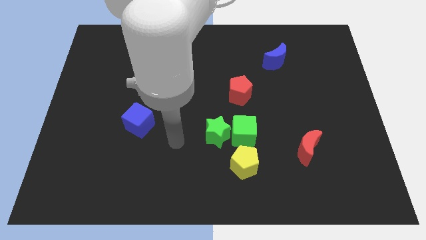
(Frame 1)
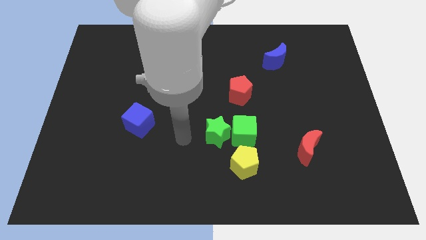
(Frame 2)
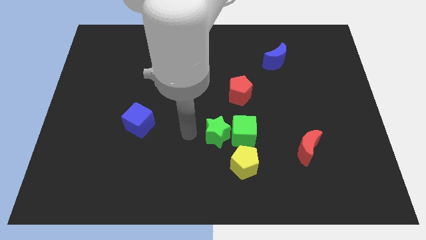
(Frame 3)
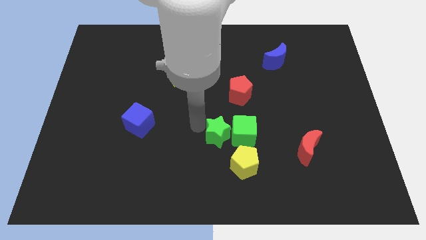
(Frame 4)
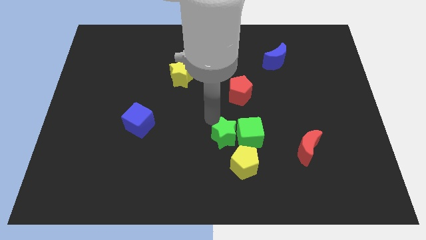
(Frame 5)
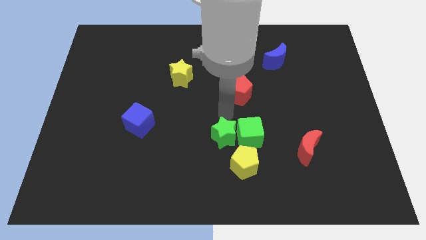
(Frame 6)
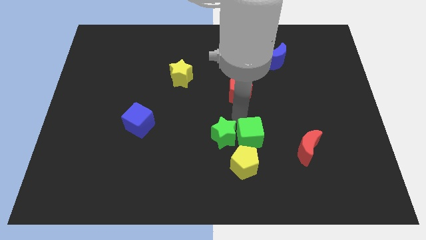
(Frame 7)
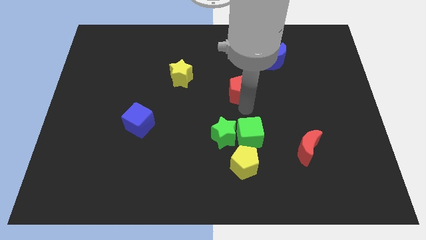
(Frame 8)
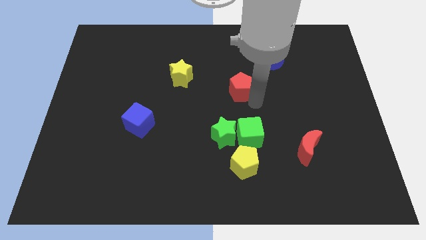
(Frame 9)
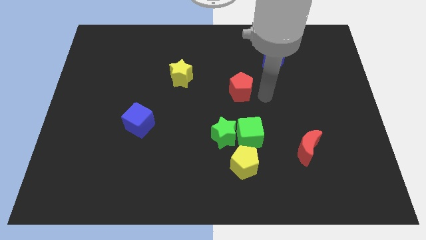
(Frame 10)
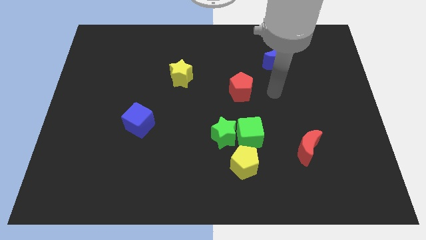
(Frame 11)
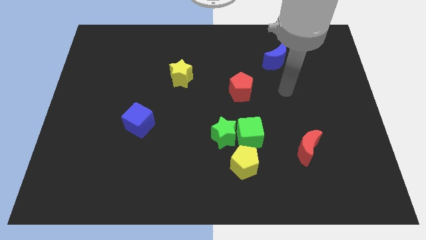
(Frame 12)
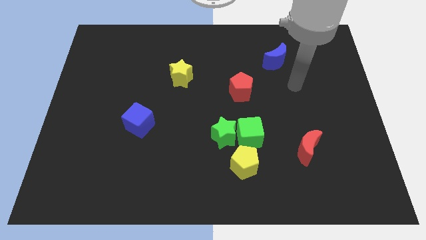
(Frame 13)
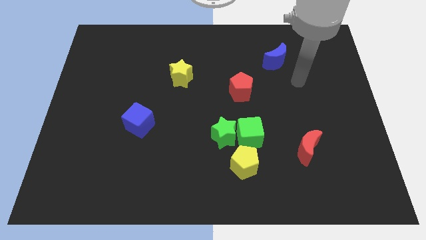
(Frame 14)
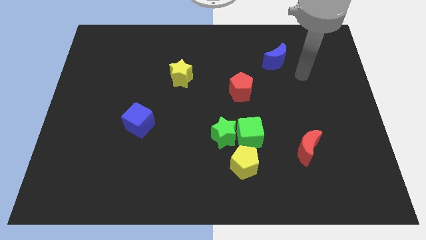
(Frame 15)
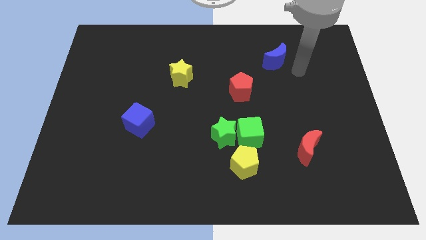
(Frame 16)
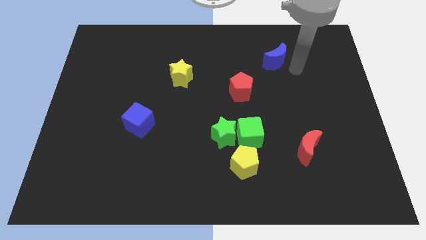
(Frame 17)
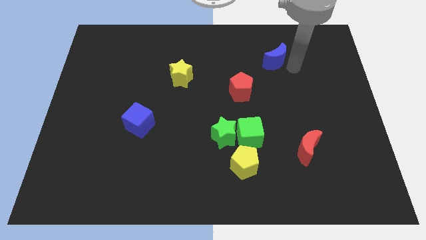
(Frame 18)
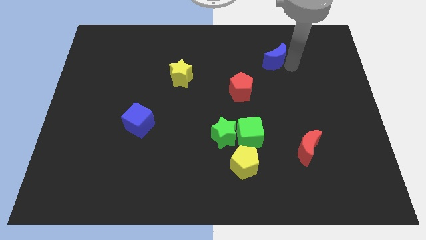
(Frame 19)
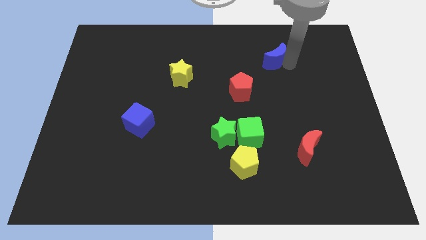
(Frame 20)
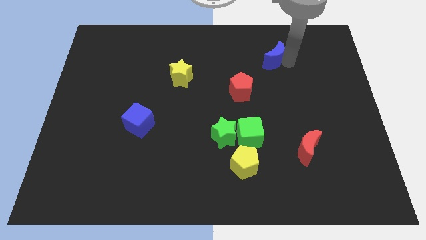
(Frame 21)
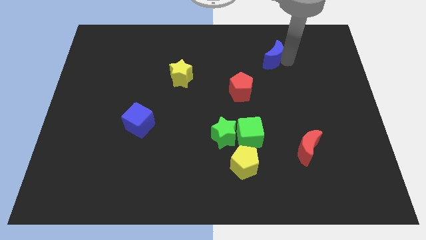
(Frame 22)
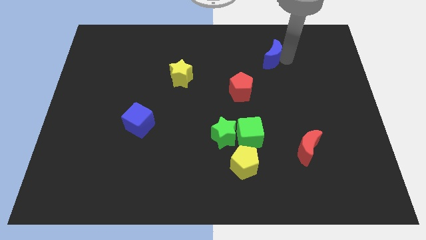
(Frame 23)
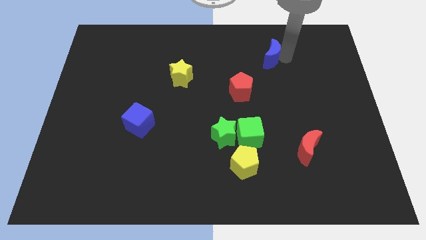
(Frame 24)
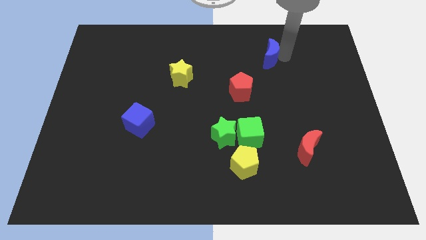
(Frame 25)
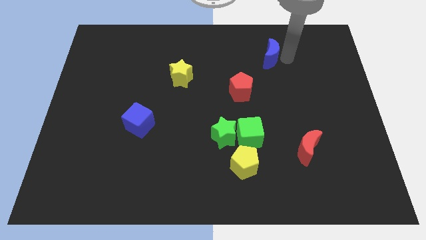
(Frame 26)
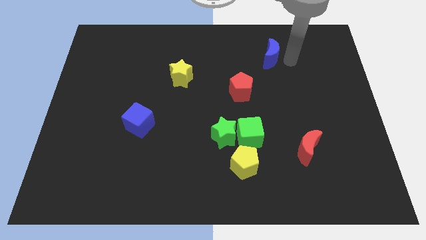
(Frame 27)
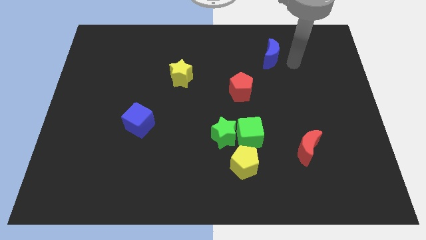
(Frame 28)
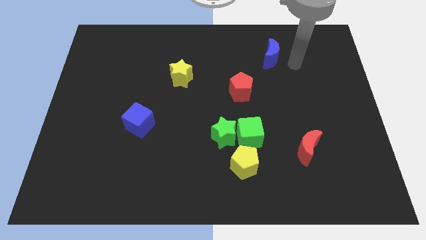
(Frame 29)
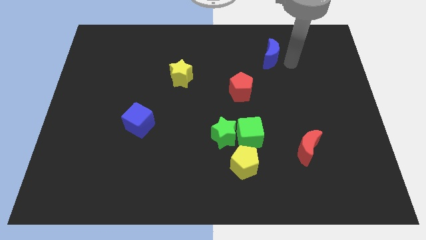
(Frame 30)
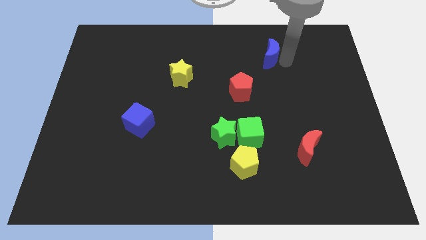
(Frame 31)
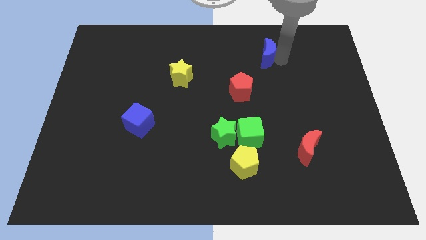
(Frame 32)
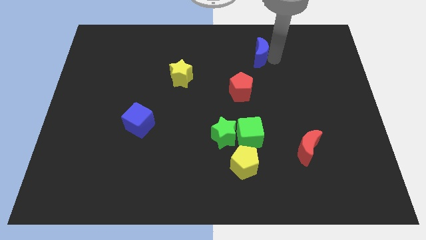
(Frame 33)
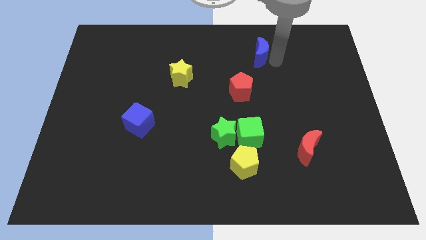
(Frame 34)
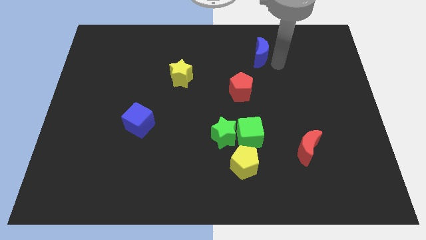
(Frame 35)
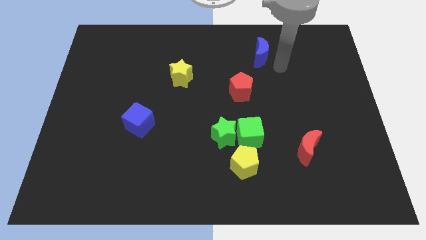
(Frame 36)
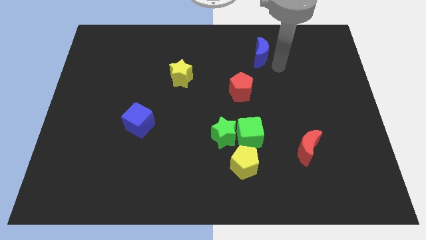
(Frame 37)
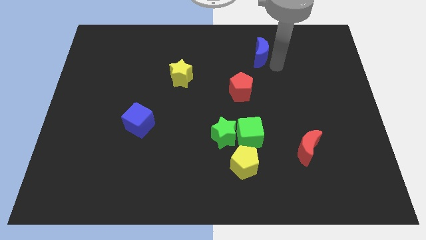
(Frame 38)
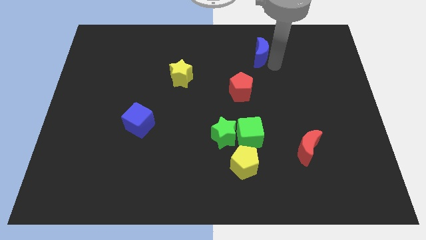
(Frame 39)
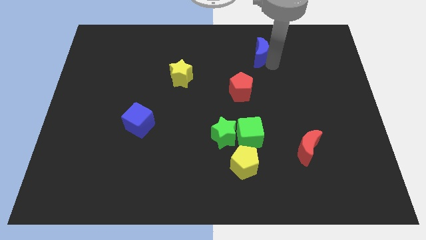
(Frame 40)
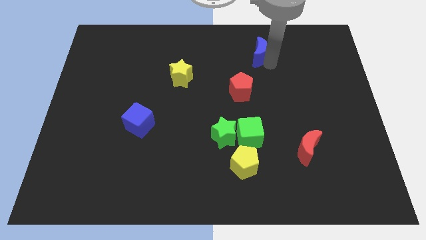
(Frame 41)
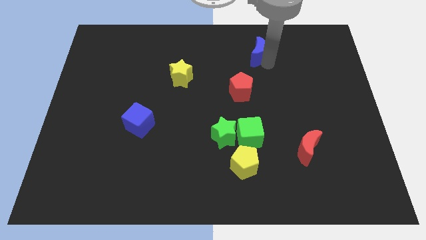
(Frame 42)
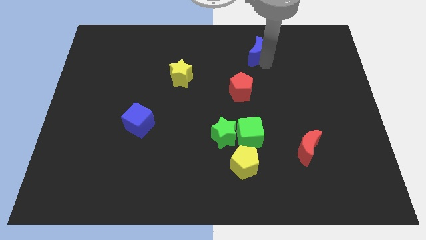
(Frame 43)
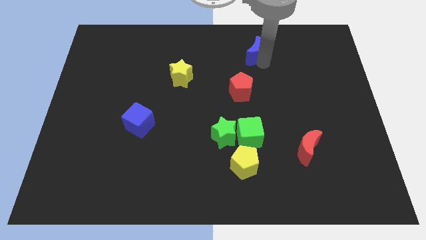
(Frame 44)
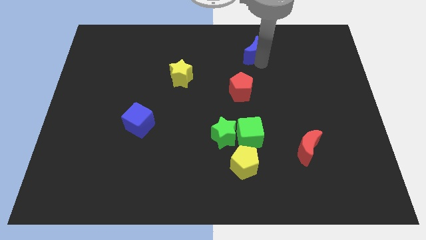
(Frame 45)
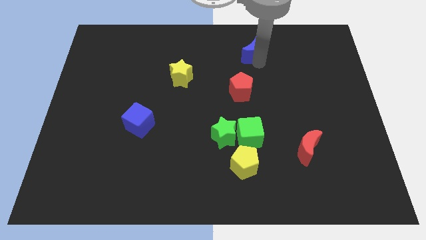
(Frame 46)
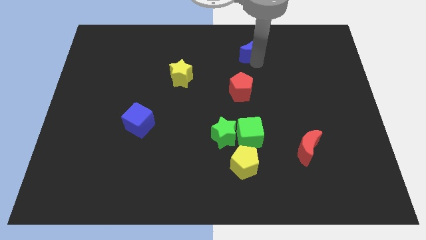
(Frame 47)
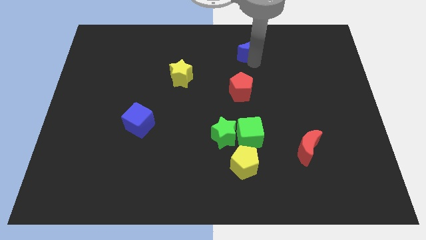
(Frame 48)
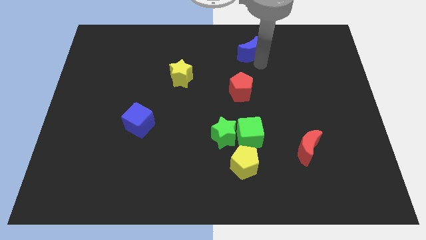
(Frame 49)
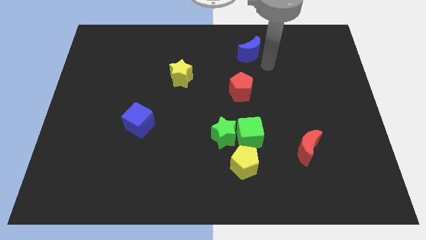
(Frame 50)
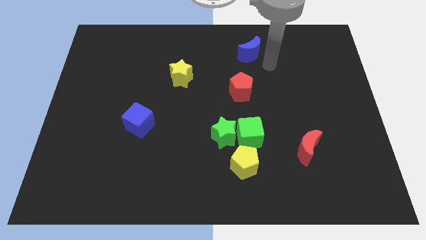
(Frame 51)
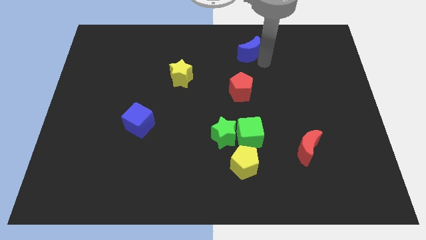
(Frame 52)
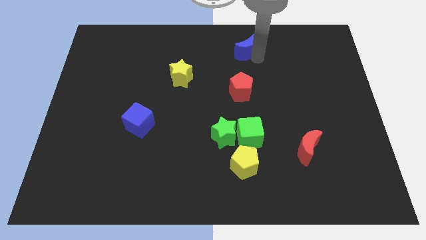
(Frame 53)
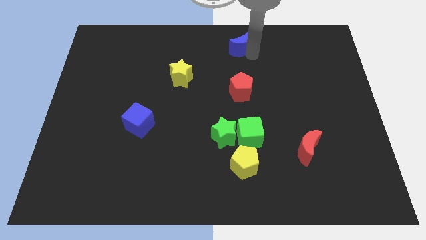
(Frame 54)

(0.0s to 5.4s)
put the blue moon to the top
